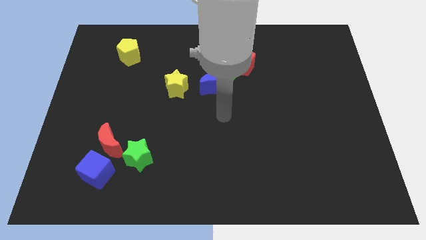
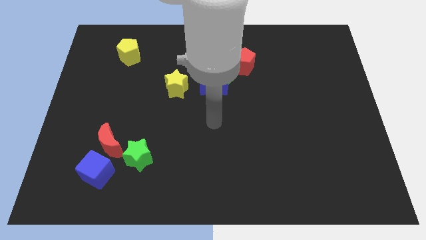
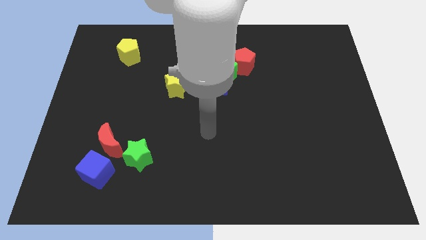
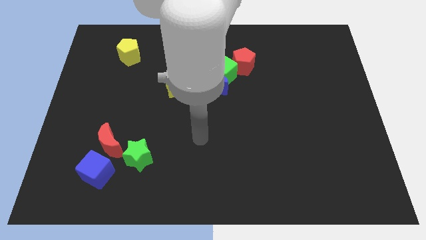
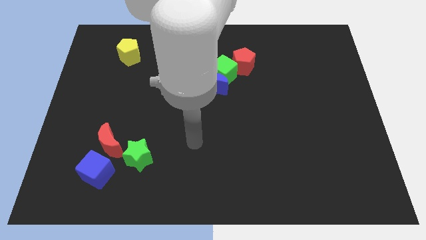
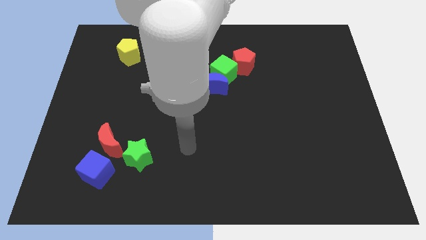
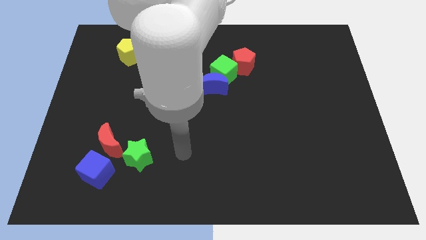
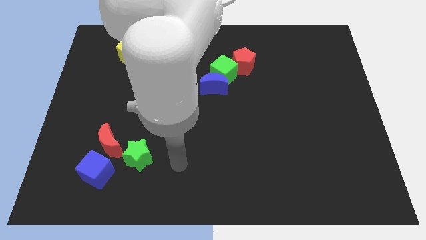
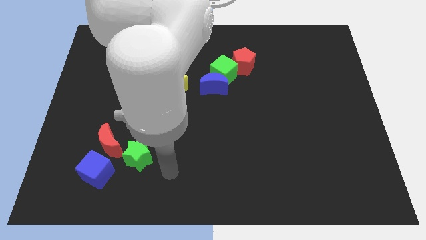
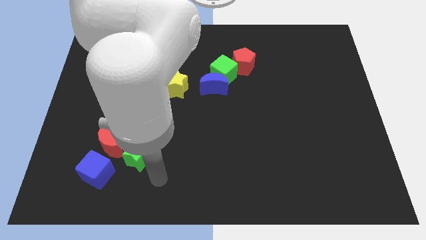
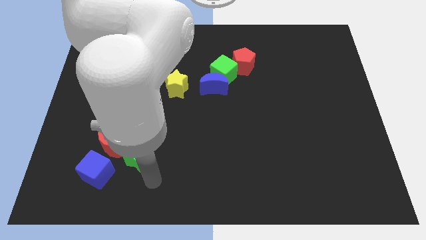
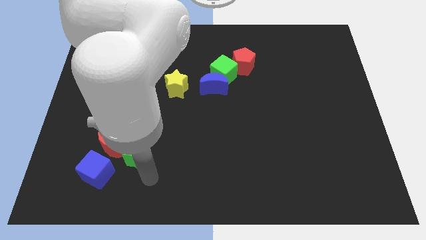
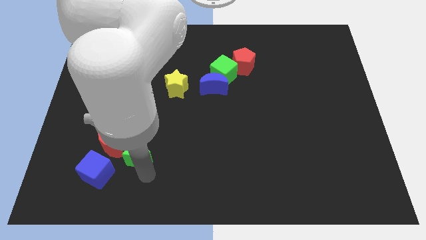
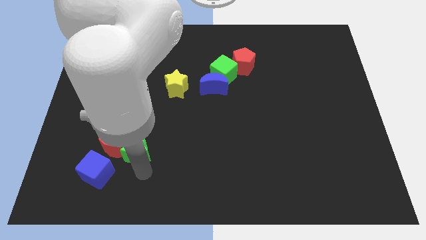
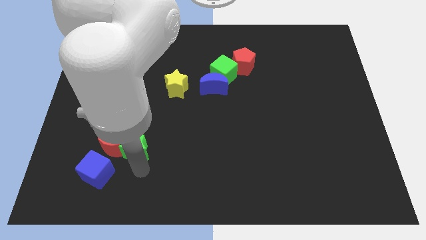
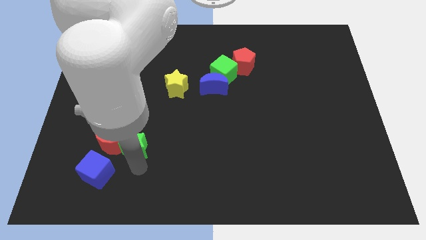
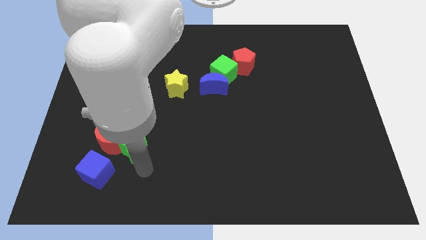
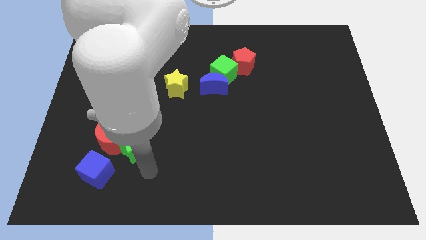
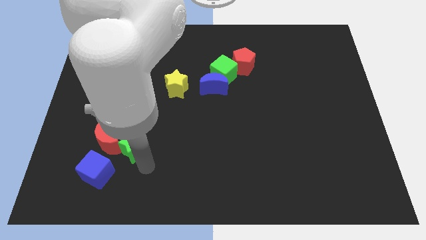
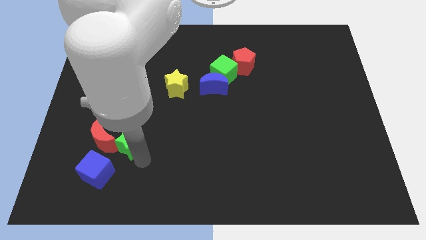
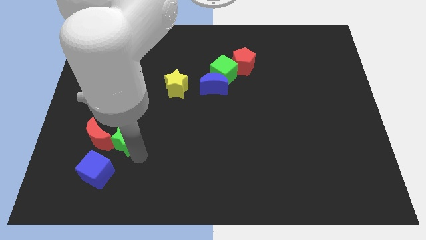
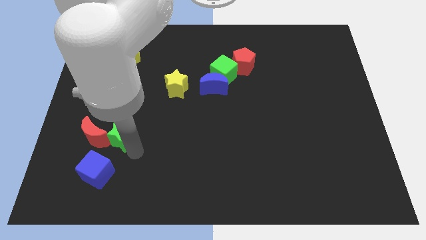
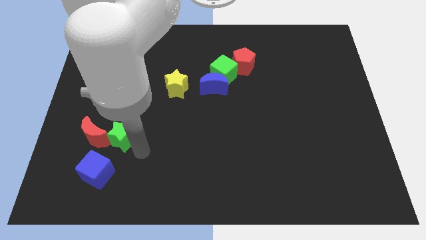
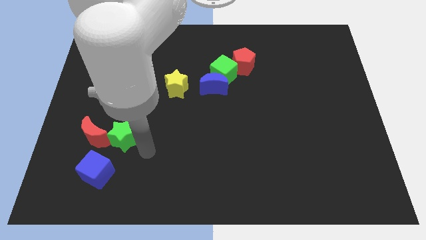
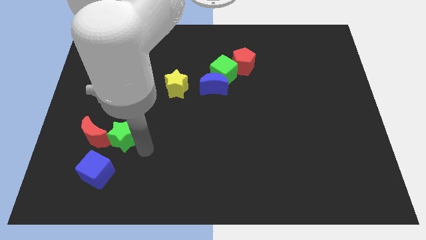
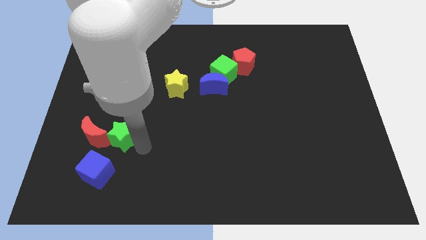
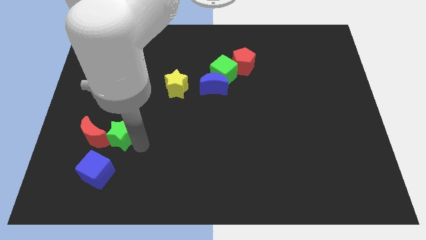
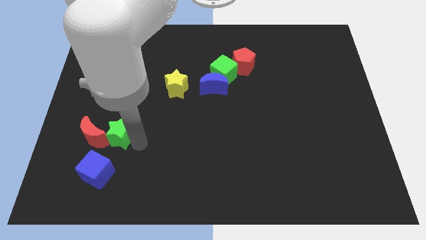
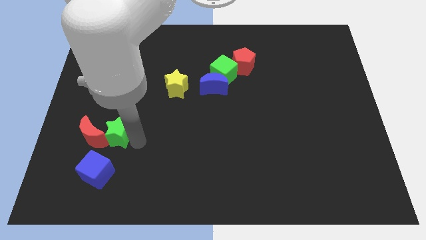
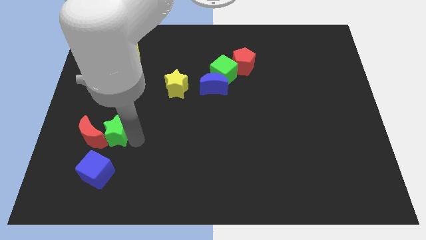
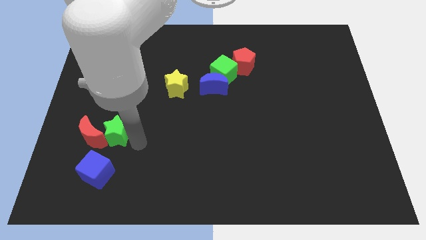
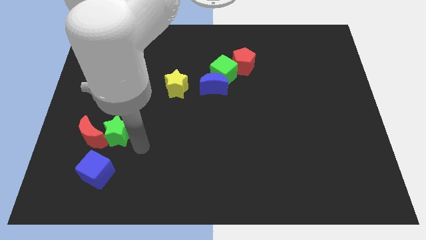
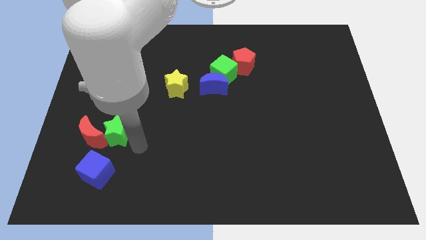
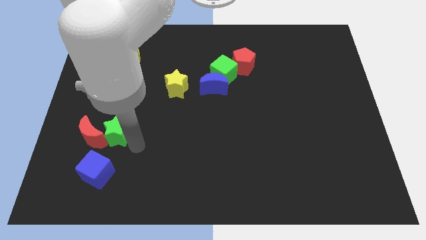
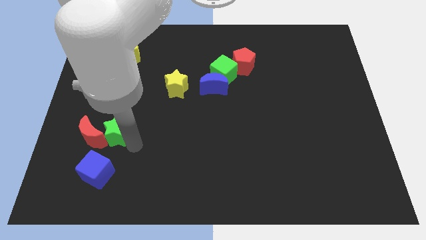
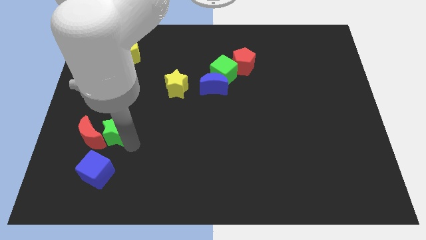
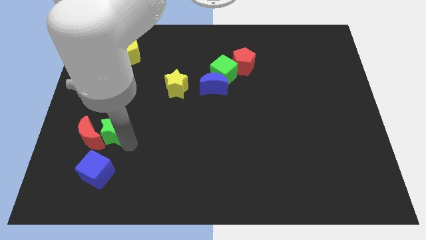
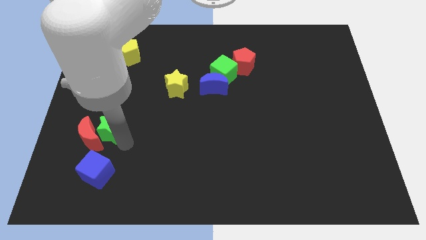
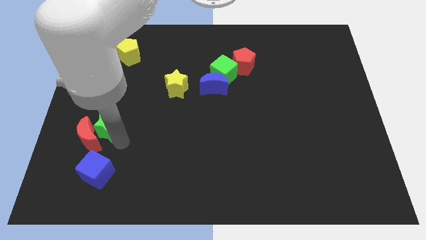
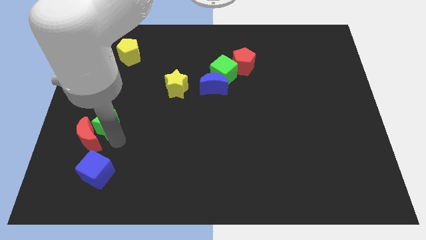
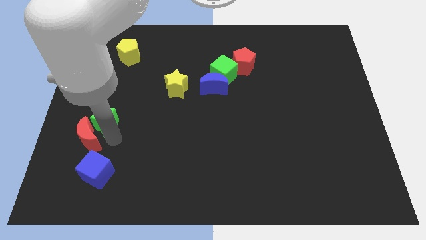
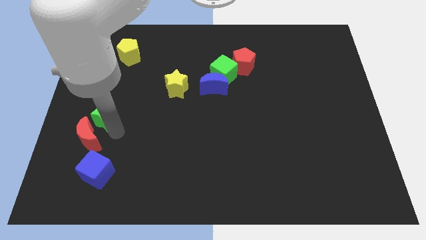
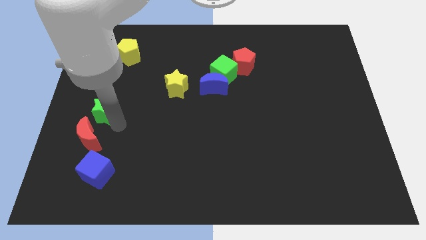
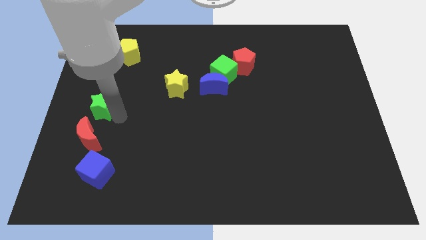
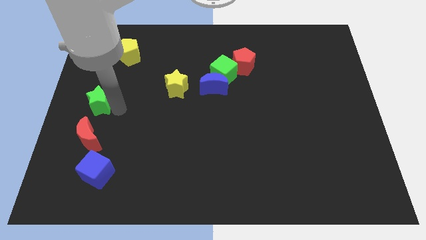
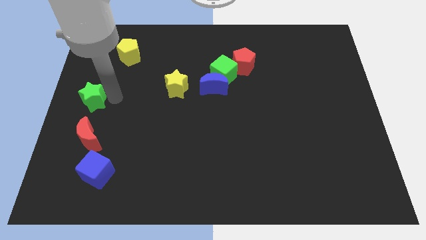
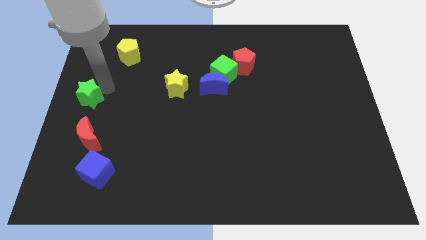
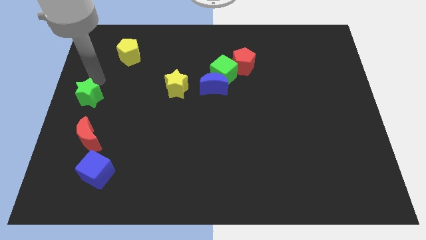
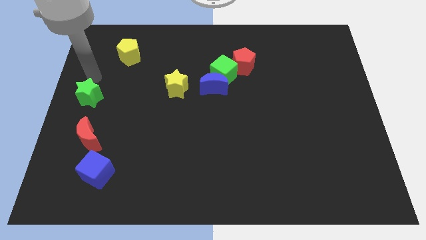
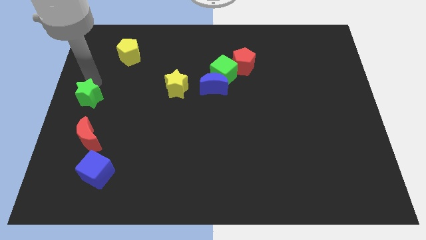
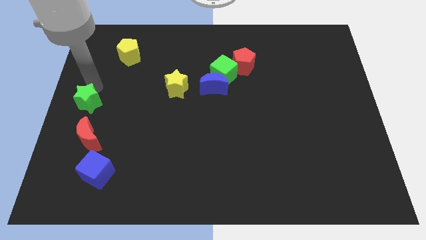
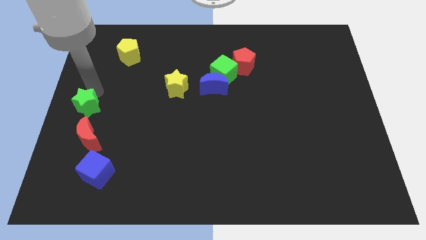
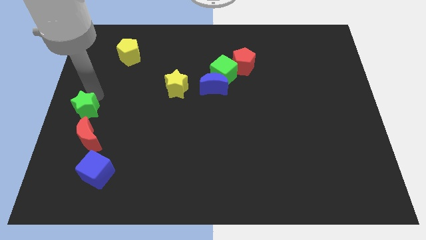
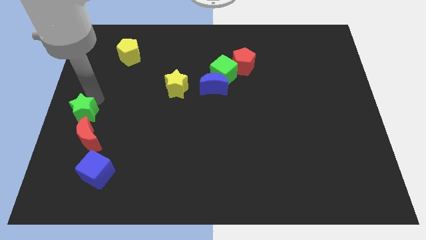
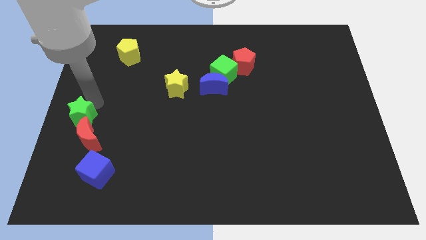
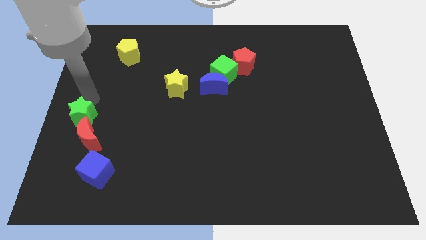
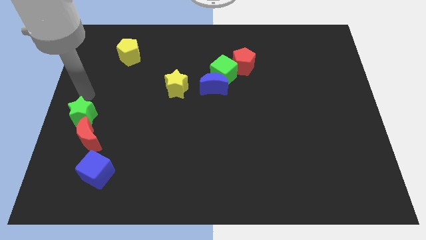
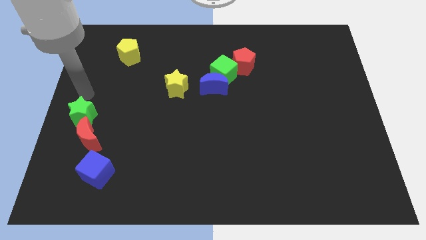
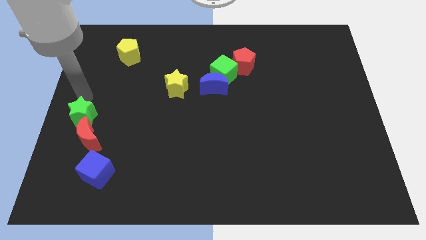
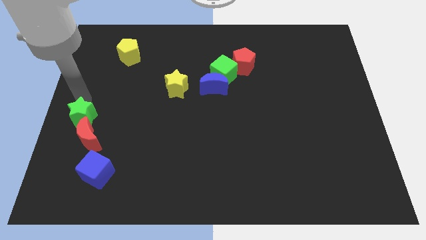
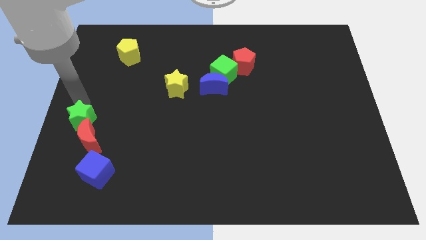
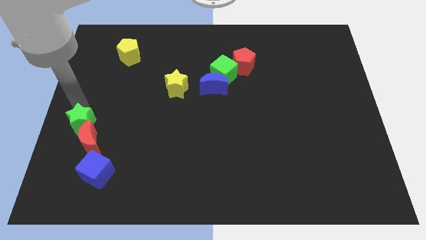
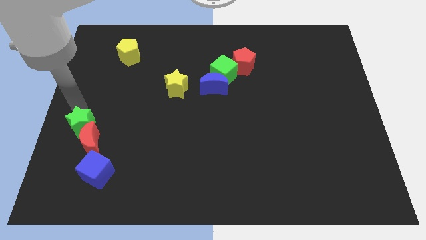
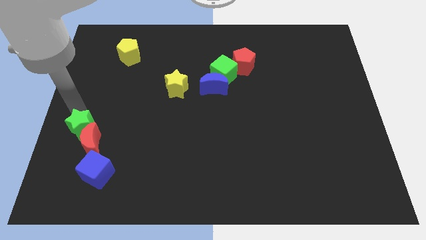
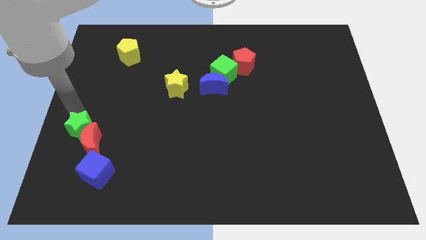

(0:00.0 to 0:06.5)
put the green star to the top left side of the blue cube
